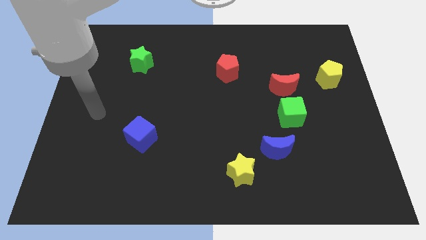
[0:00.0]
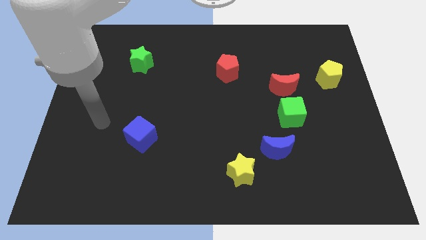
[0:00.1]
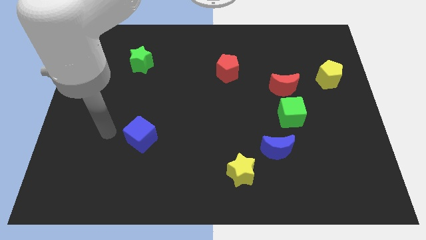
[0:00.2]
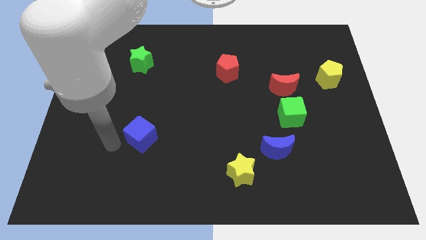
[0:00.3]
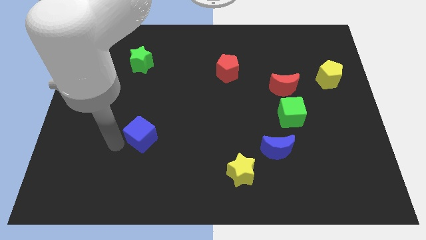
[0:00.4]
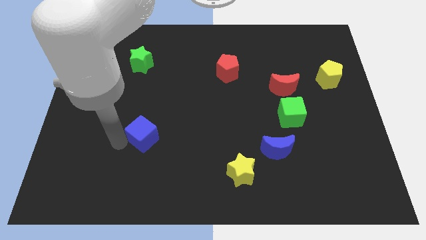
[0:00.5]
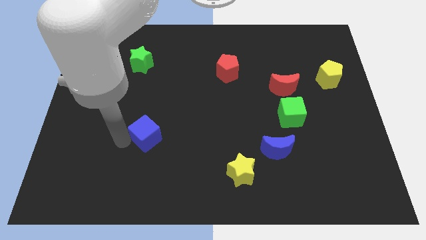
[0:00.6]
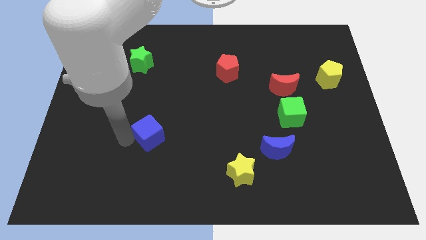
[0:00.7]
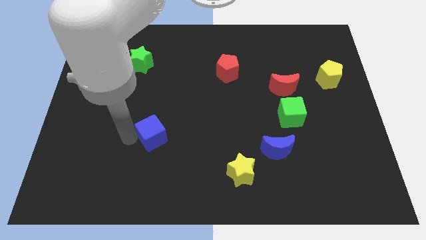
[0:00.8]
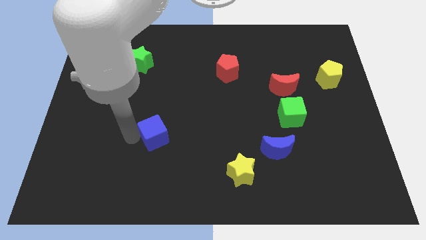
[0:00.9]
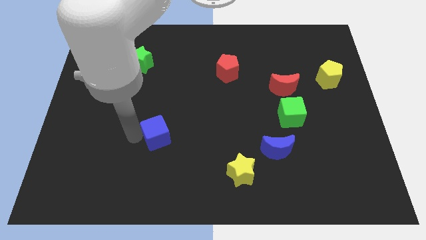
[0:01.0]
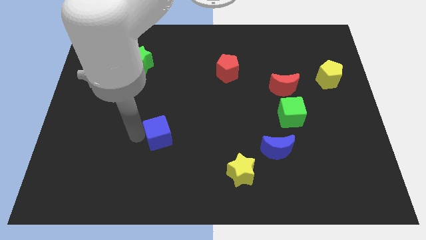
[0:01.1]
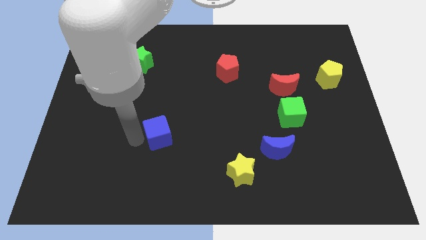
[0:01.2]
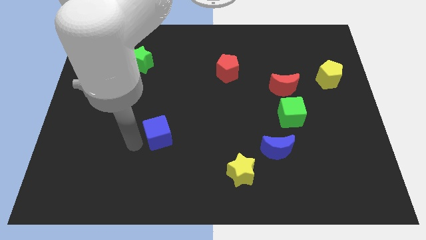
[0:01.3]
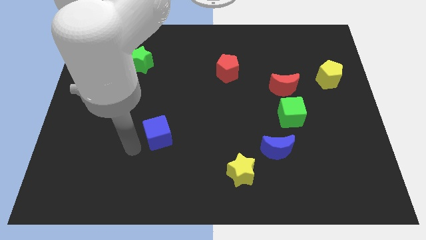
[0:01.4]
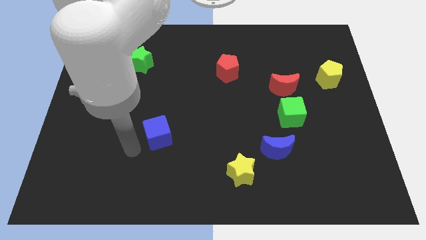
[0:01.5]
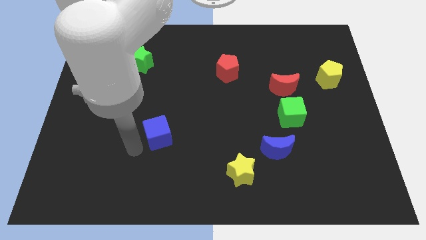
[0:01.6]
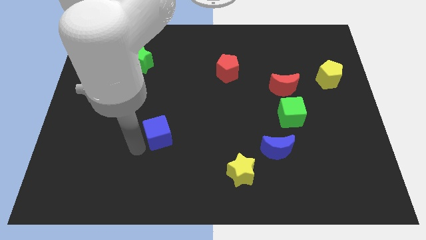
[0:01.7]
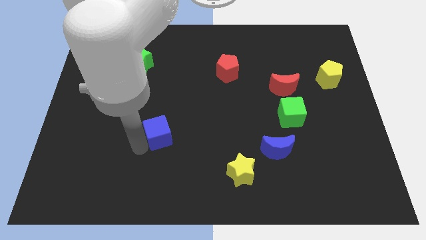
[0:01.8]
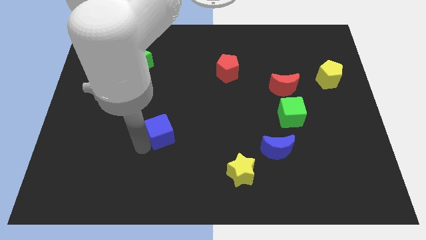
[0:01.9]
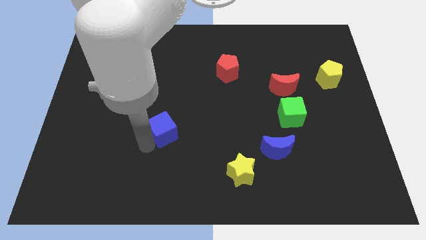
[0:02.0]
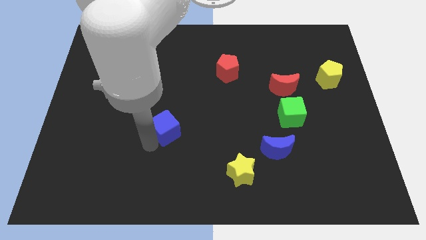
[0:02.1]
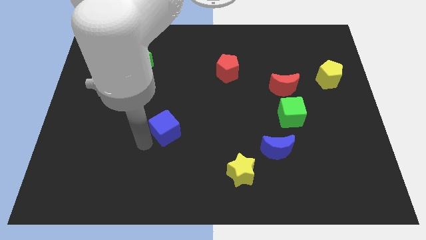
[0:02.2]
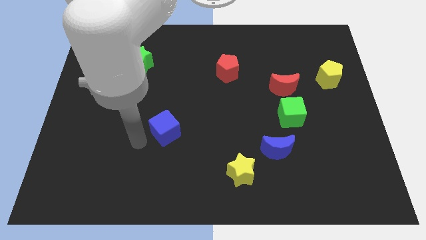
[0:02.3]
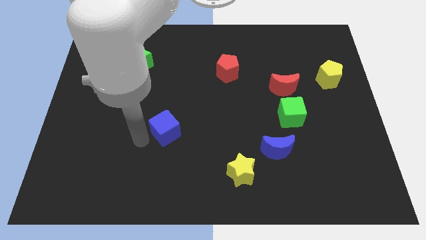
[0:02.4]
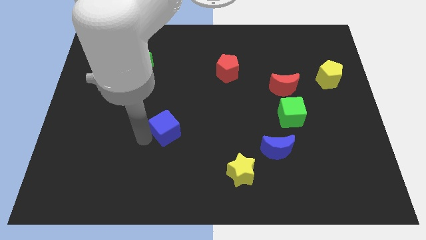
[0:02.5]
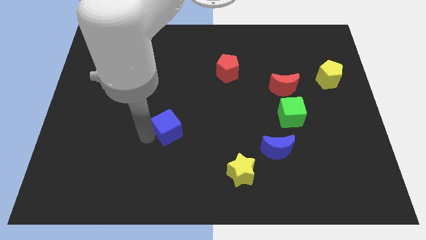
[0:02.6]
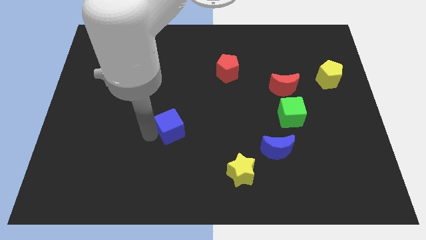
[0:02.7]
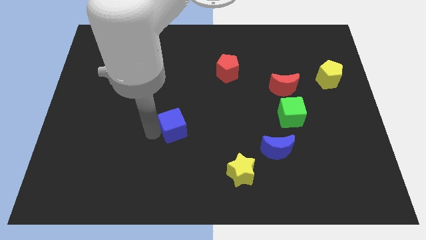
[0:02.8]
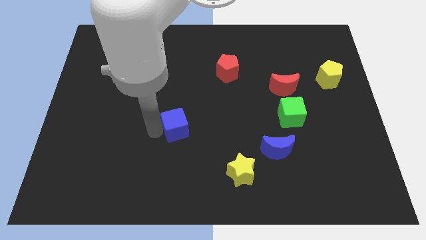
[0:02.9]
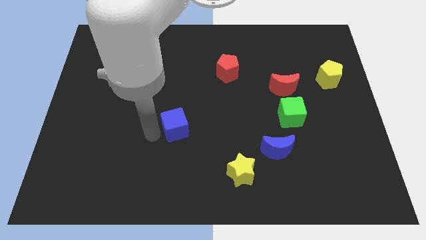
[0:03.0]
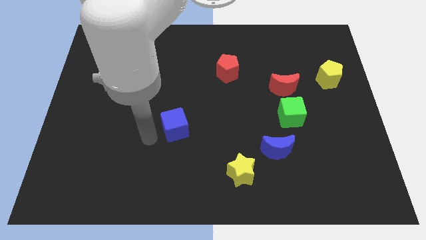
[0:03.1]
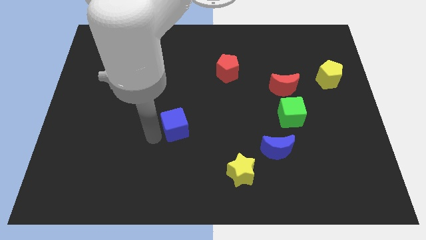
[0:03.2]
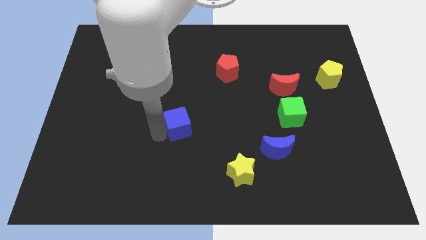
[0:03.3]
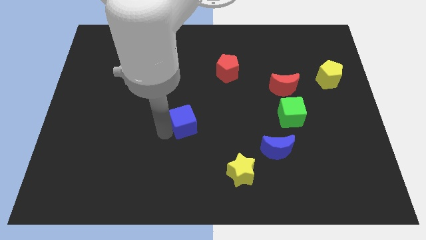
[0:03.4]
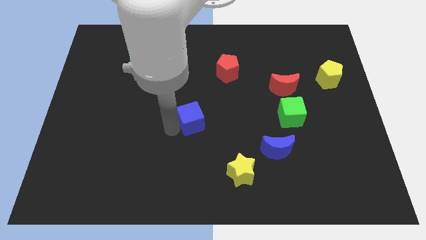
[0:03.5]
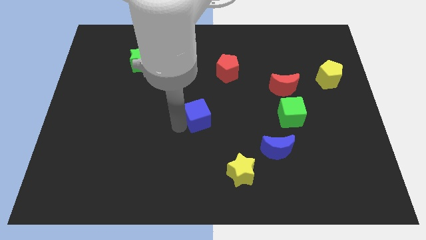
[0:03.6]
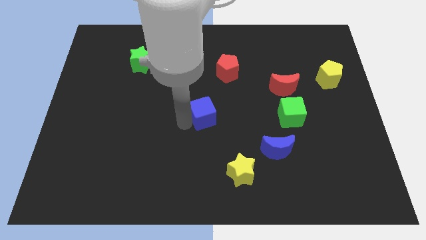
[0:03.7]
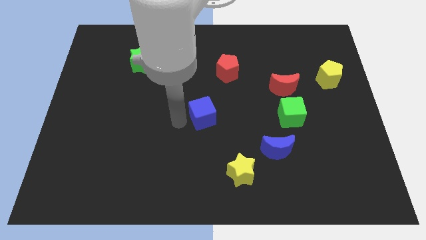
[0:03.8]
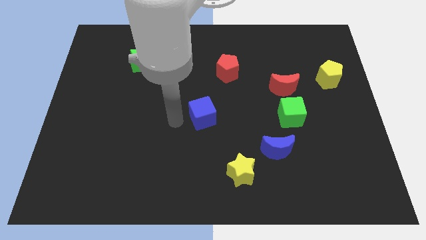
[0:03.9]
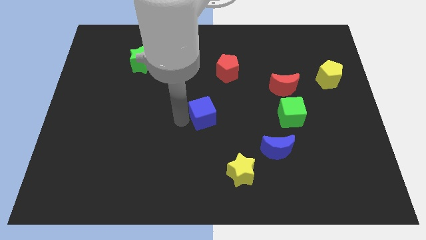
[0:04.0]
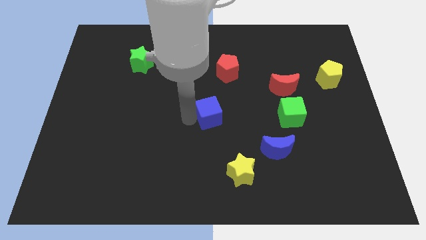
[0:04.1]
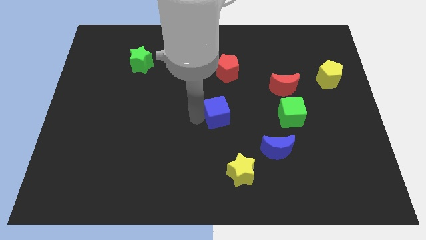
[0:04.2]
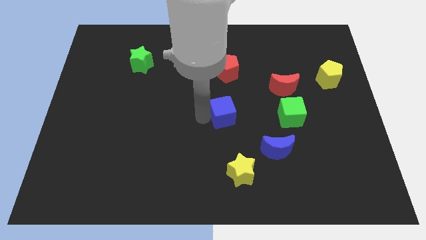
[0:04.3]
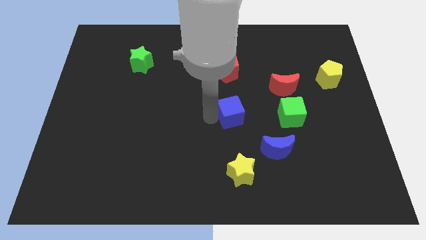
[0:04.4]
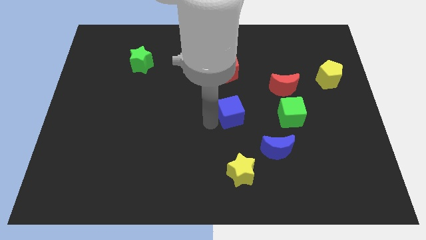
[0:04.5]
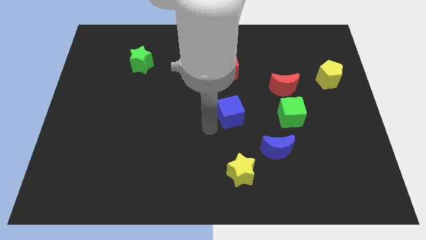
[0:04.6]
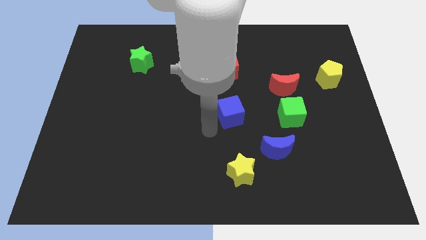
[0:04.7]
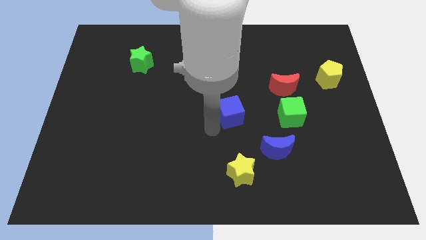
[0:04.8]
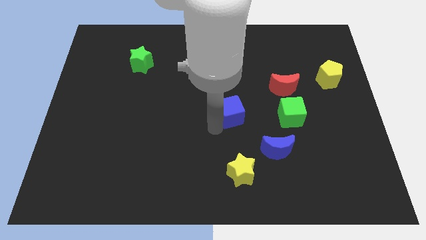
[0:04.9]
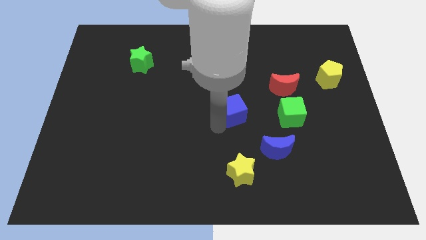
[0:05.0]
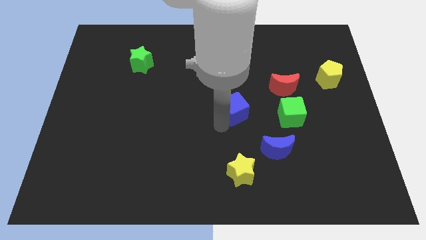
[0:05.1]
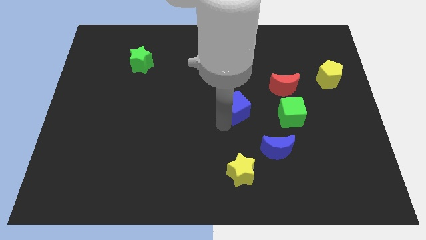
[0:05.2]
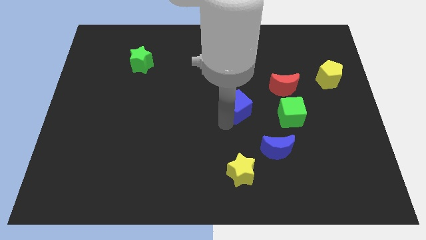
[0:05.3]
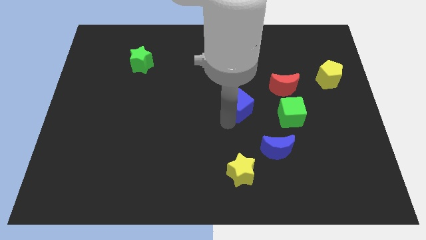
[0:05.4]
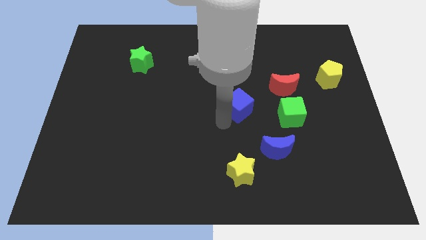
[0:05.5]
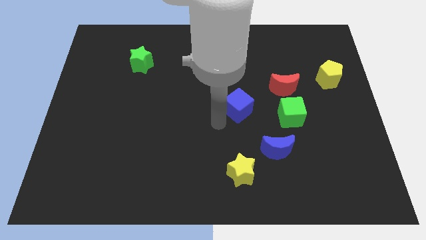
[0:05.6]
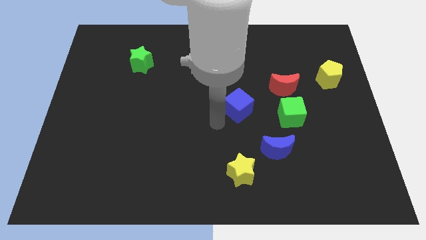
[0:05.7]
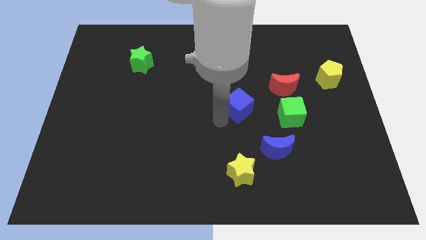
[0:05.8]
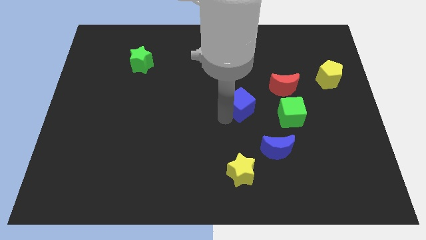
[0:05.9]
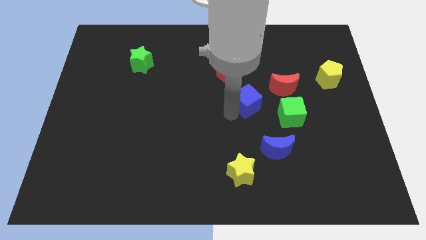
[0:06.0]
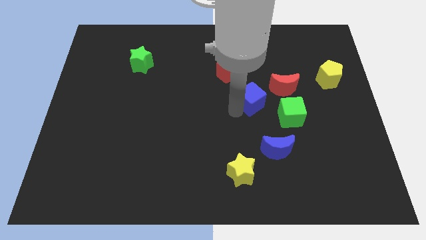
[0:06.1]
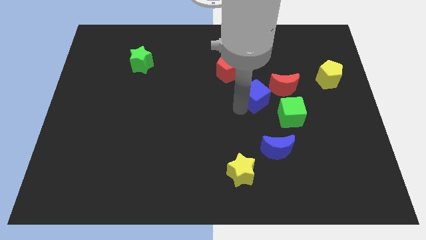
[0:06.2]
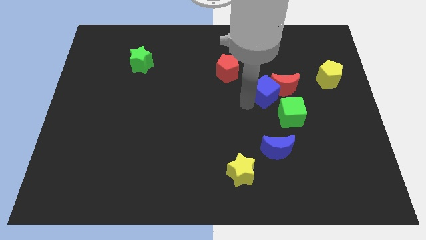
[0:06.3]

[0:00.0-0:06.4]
slide the blue cube to the red moon

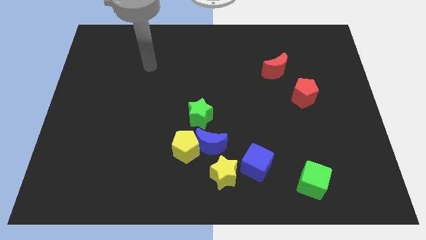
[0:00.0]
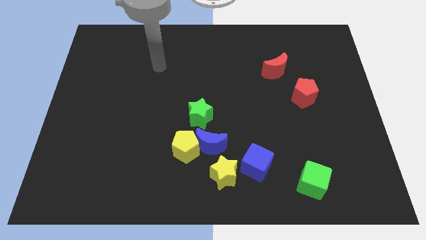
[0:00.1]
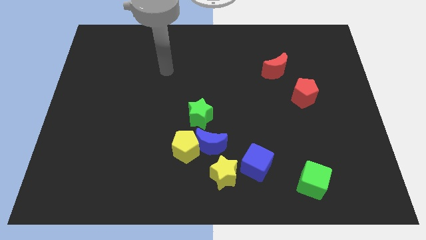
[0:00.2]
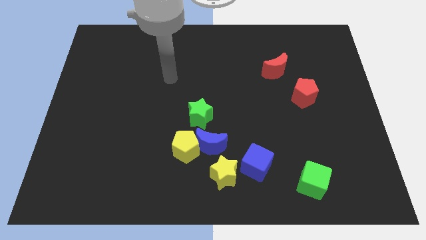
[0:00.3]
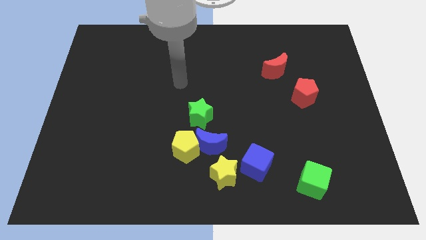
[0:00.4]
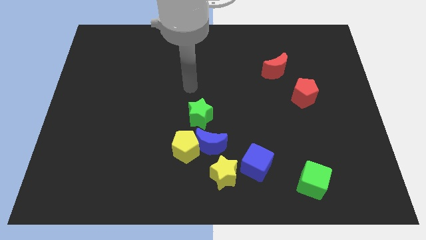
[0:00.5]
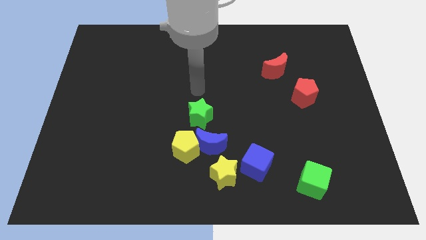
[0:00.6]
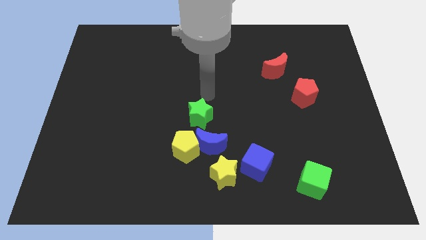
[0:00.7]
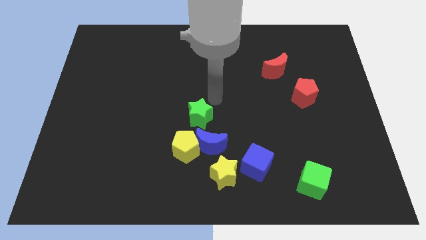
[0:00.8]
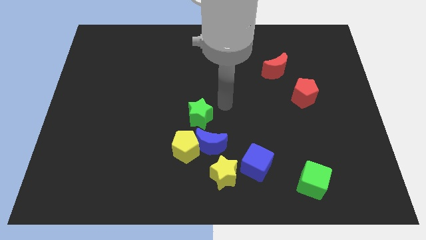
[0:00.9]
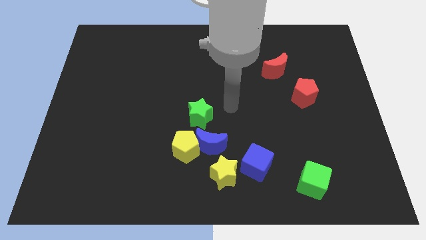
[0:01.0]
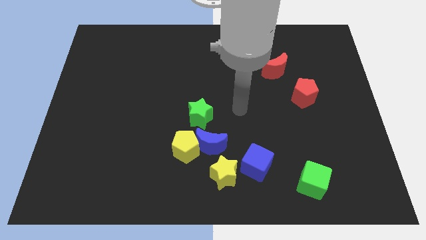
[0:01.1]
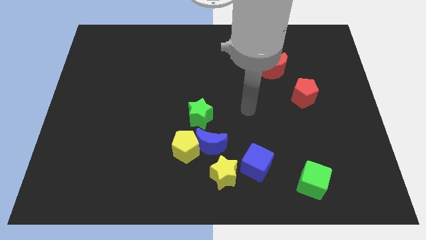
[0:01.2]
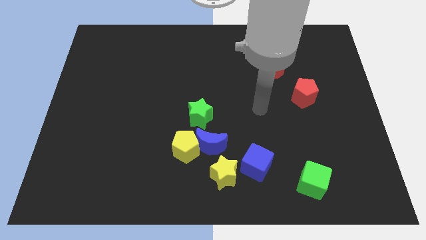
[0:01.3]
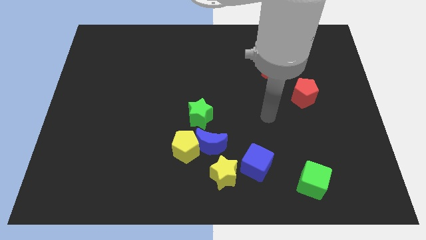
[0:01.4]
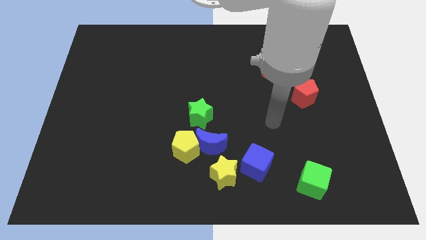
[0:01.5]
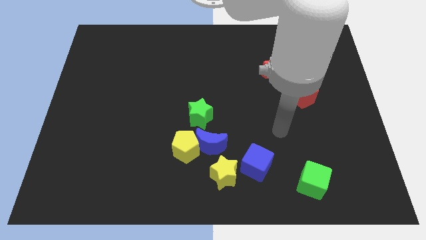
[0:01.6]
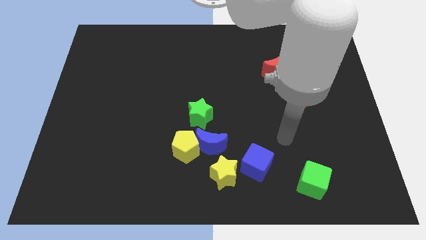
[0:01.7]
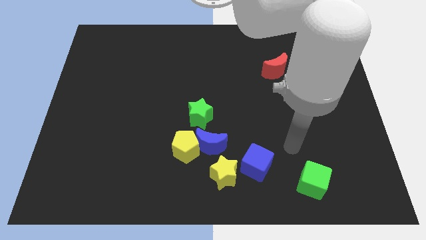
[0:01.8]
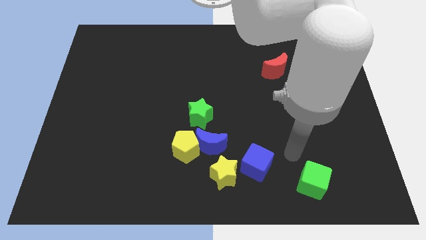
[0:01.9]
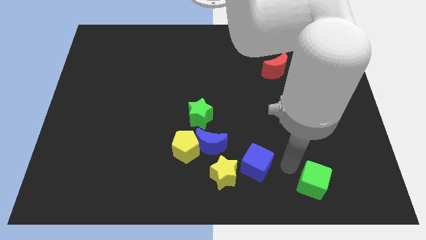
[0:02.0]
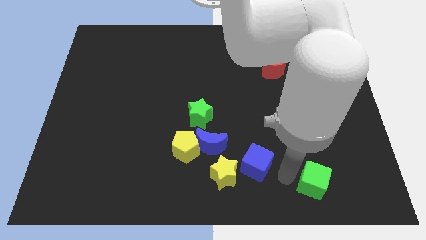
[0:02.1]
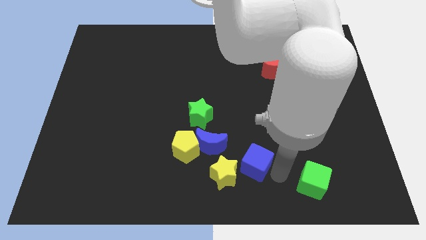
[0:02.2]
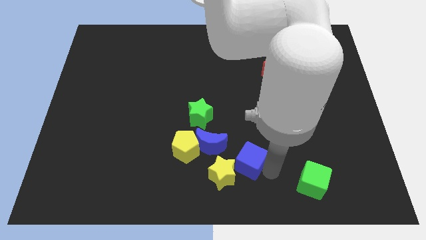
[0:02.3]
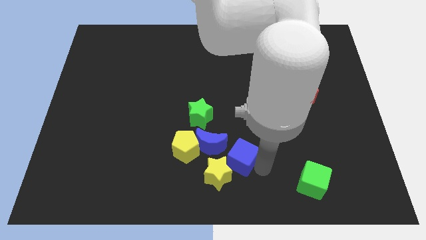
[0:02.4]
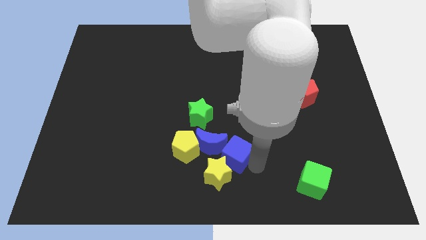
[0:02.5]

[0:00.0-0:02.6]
put the blue cube towards the blue moon
